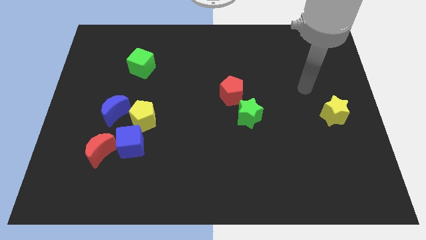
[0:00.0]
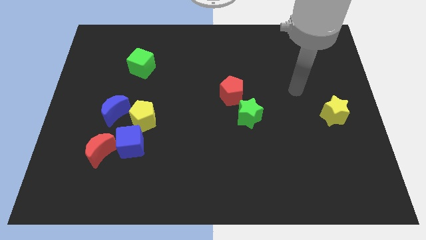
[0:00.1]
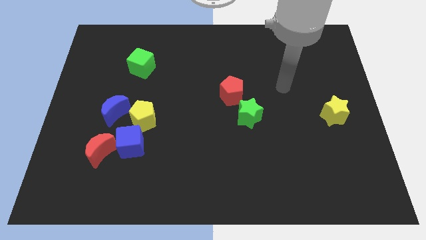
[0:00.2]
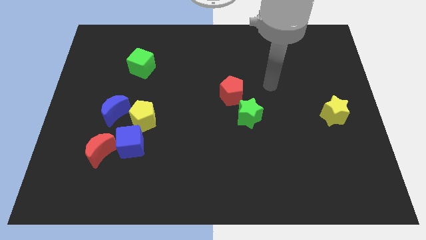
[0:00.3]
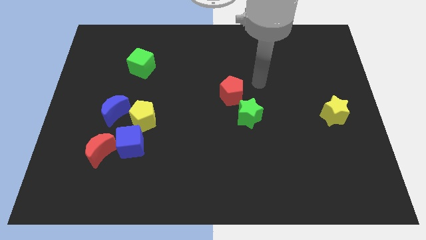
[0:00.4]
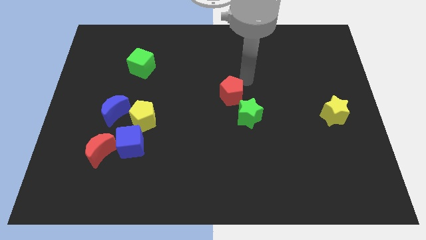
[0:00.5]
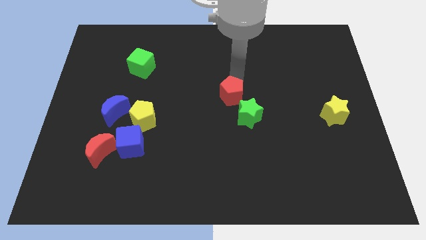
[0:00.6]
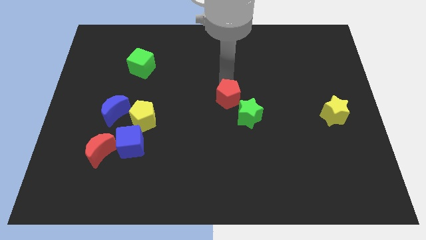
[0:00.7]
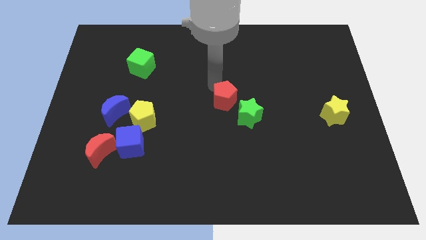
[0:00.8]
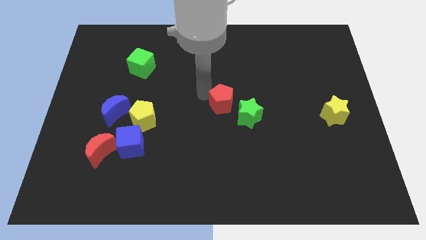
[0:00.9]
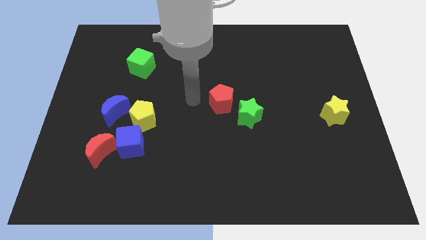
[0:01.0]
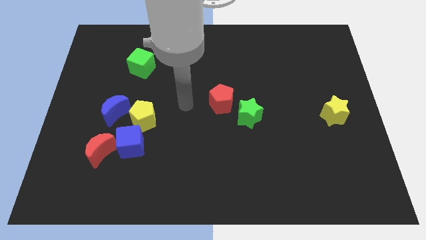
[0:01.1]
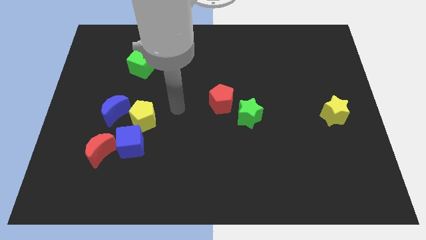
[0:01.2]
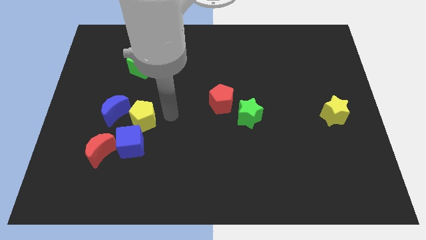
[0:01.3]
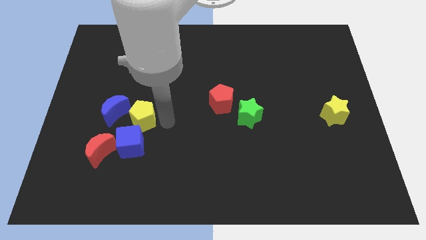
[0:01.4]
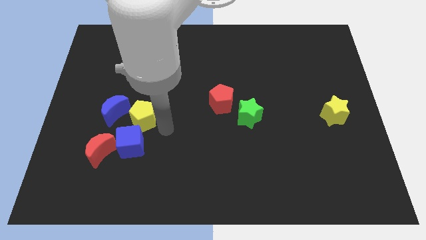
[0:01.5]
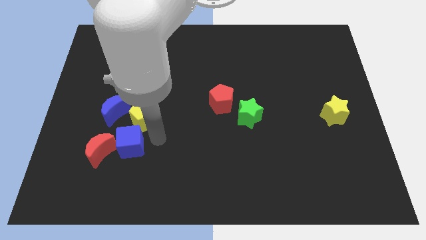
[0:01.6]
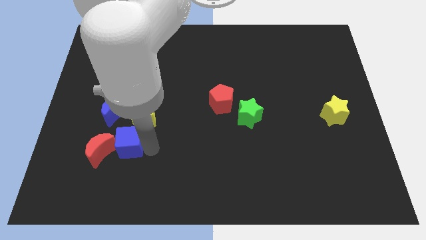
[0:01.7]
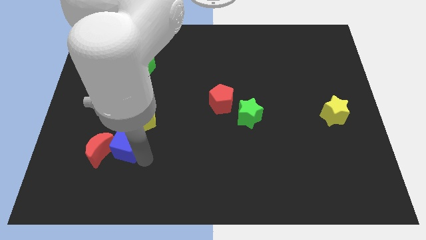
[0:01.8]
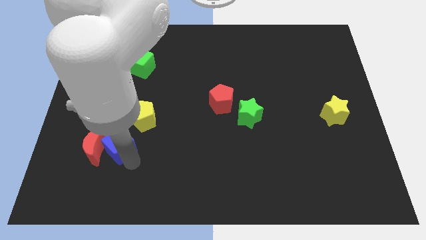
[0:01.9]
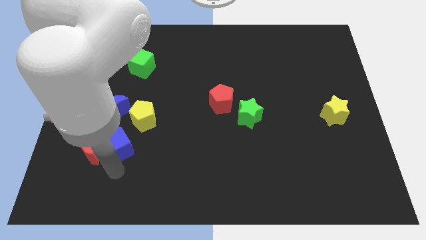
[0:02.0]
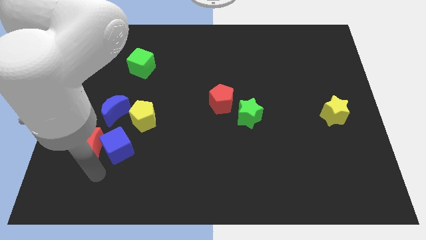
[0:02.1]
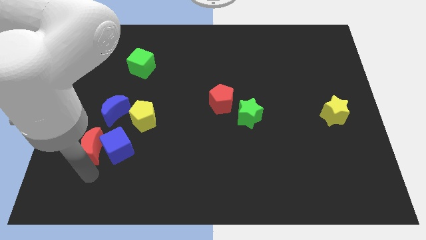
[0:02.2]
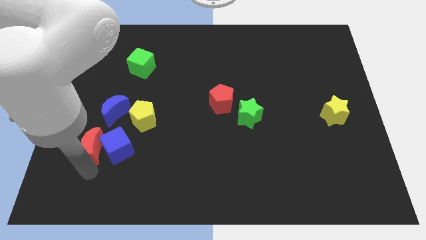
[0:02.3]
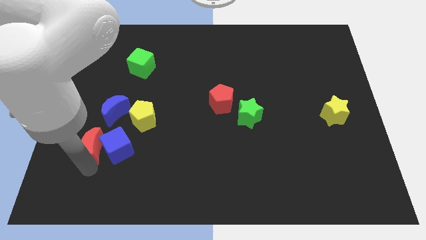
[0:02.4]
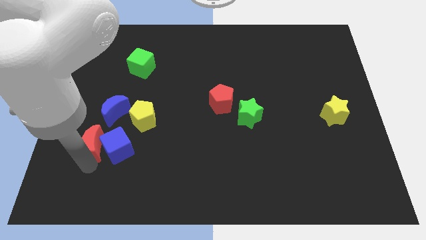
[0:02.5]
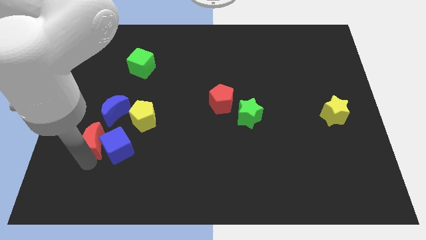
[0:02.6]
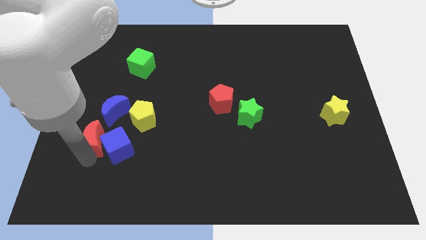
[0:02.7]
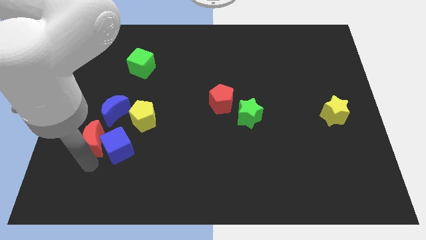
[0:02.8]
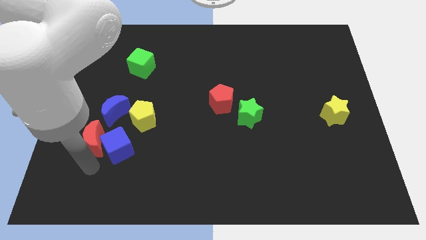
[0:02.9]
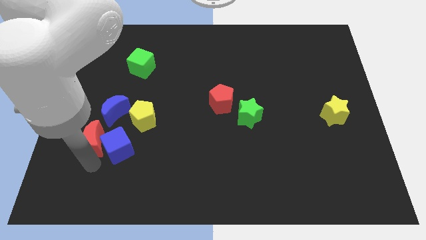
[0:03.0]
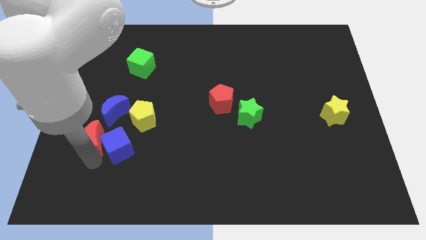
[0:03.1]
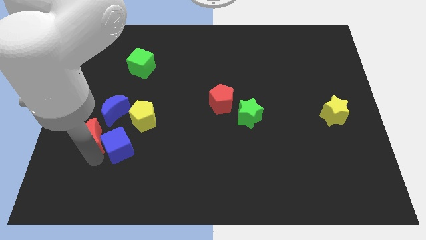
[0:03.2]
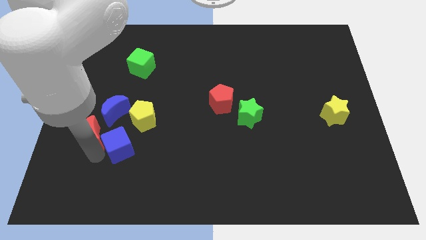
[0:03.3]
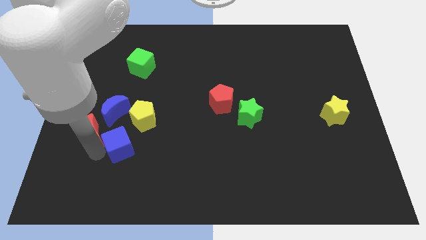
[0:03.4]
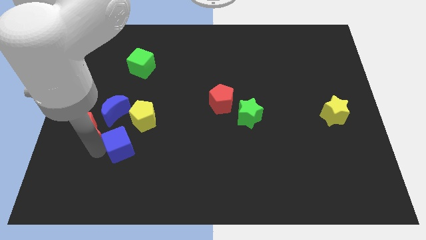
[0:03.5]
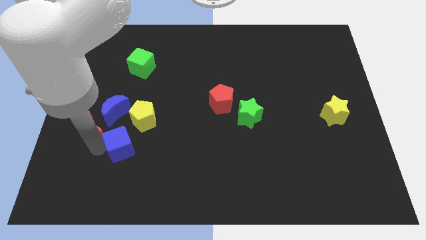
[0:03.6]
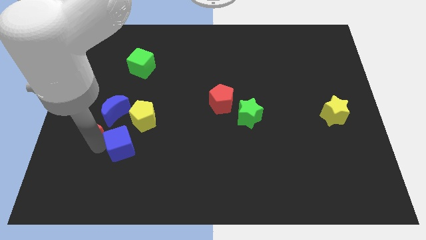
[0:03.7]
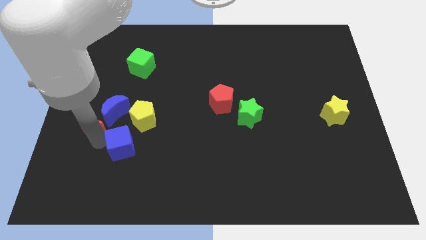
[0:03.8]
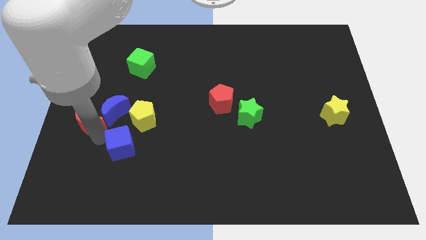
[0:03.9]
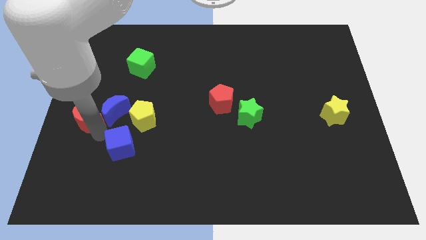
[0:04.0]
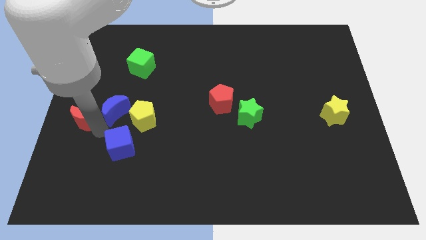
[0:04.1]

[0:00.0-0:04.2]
move the red moon upwards a bit

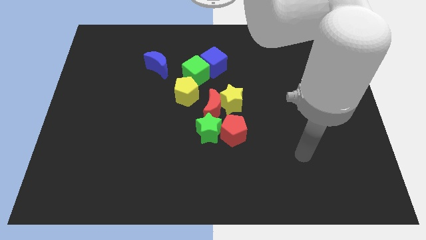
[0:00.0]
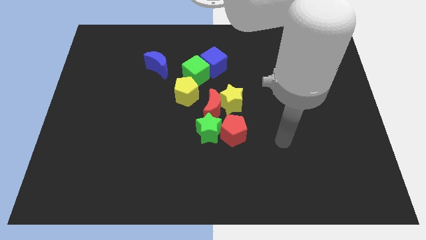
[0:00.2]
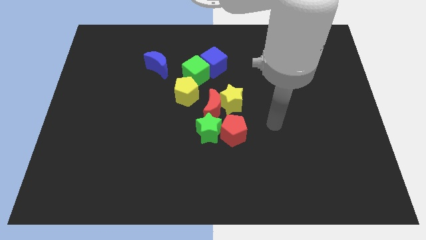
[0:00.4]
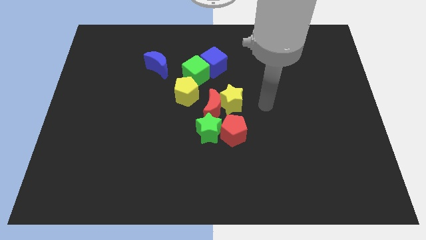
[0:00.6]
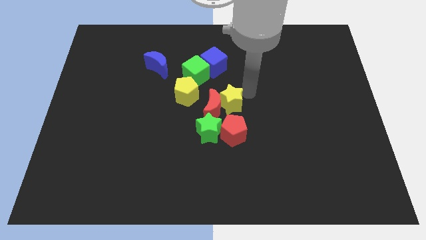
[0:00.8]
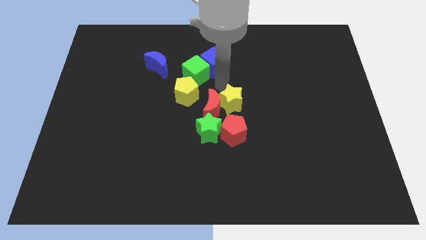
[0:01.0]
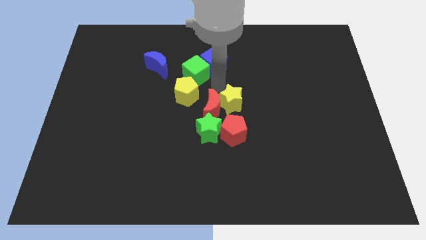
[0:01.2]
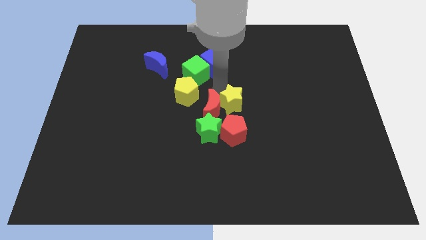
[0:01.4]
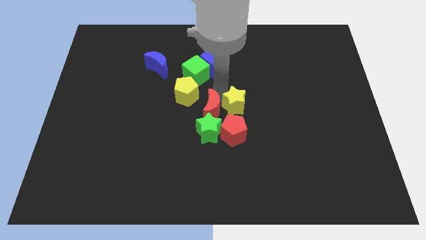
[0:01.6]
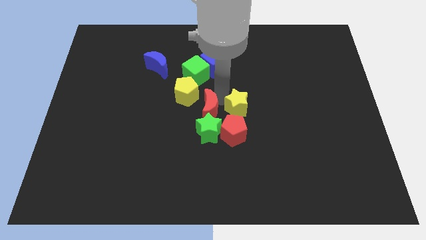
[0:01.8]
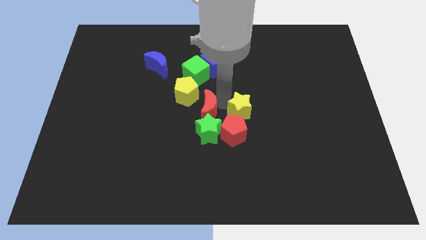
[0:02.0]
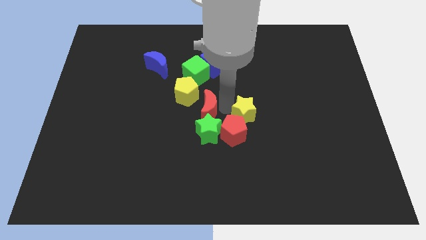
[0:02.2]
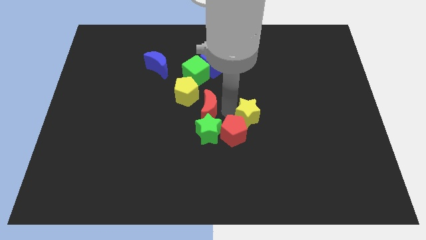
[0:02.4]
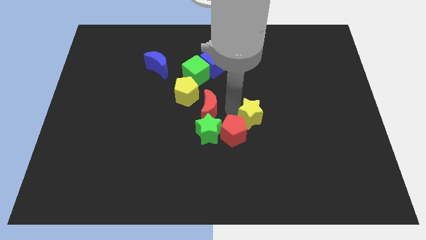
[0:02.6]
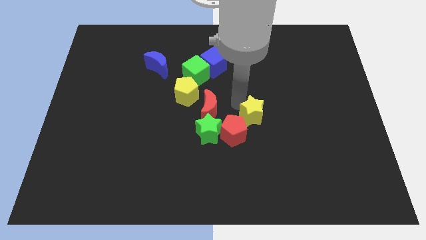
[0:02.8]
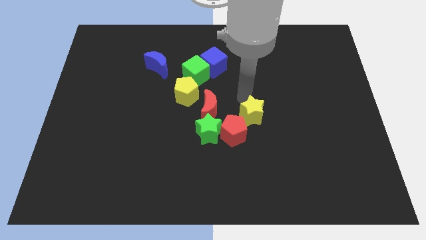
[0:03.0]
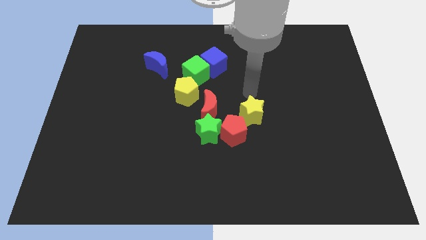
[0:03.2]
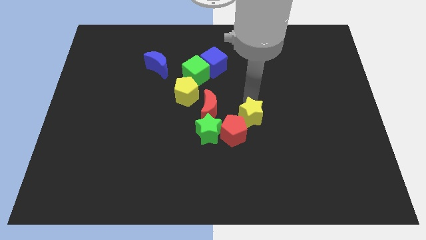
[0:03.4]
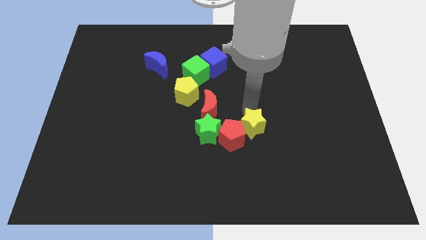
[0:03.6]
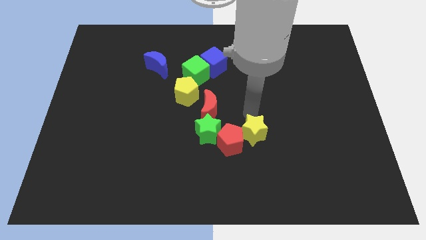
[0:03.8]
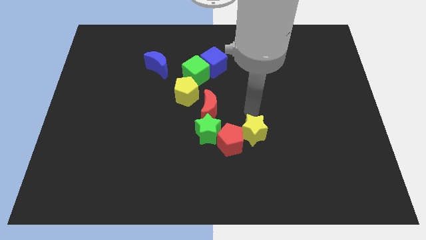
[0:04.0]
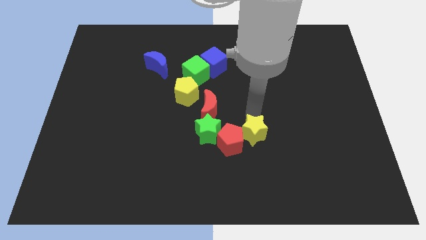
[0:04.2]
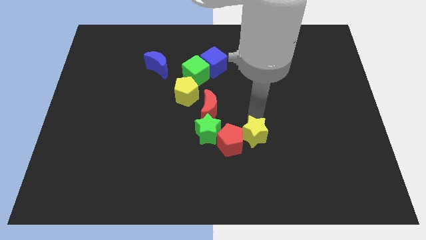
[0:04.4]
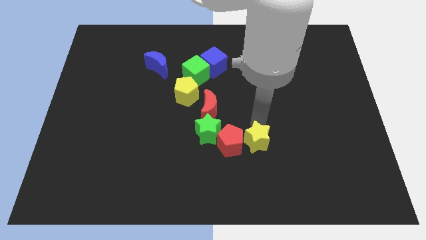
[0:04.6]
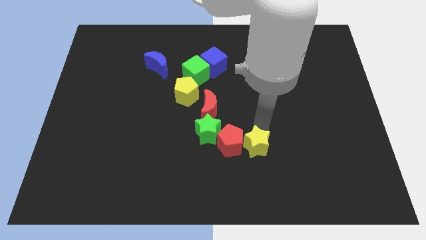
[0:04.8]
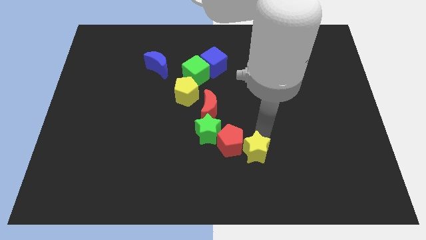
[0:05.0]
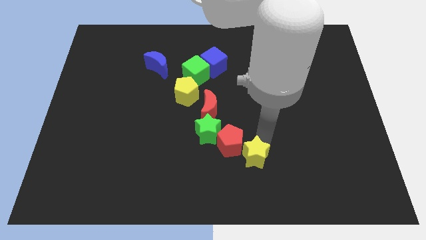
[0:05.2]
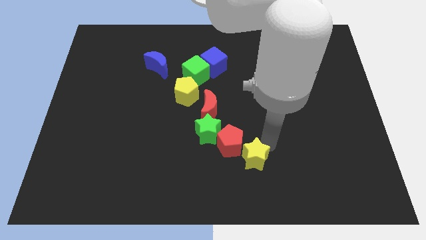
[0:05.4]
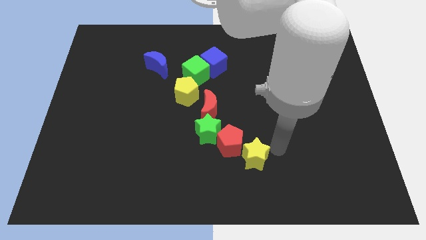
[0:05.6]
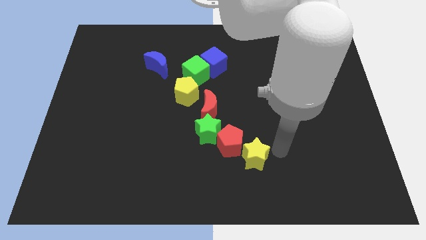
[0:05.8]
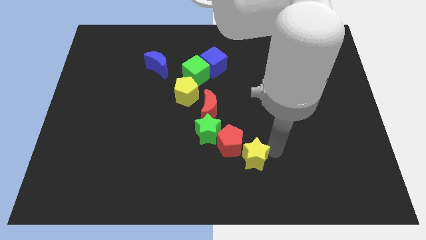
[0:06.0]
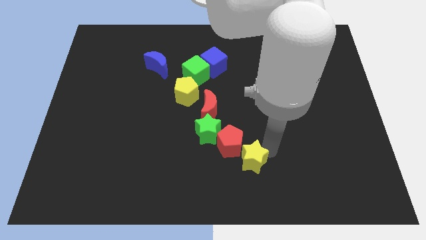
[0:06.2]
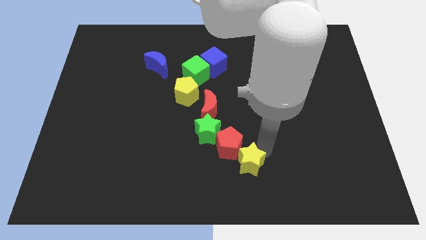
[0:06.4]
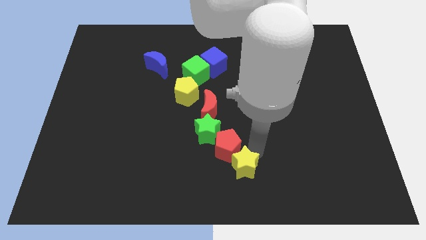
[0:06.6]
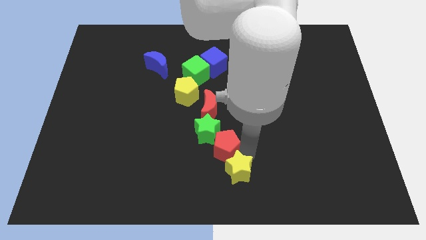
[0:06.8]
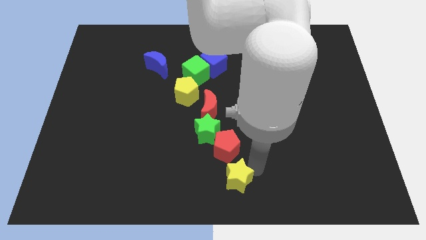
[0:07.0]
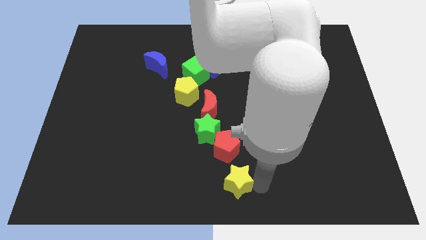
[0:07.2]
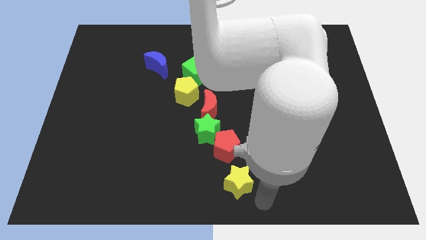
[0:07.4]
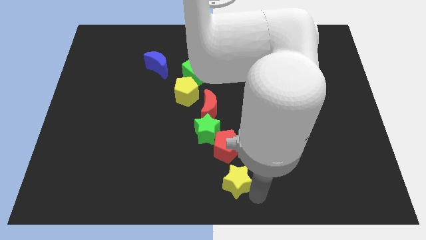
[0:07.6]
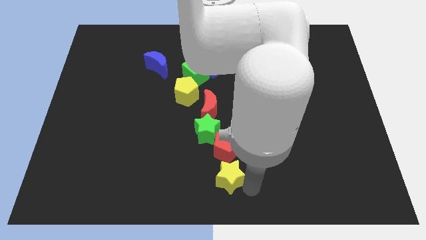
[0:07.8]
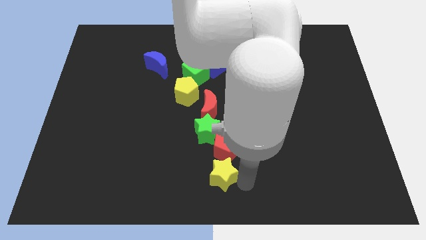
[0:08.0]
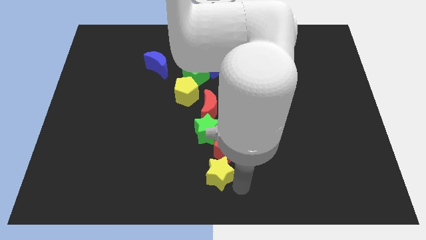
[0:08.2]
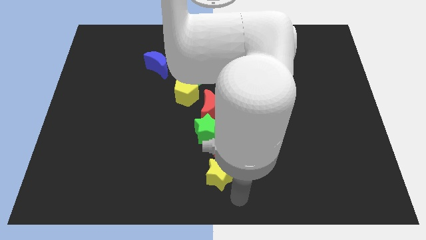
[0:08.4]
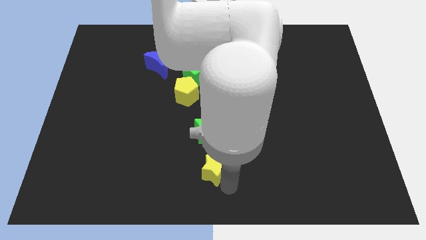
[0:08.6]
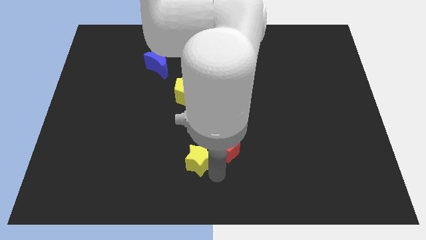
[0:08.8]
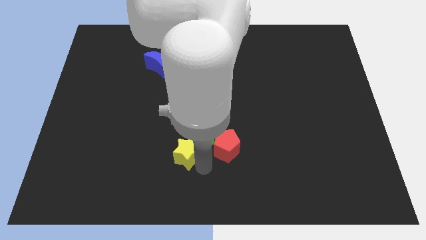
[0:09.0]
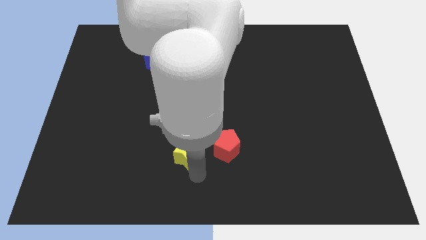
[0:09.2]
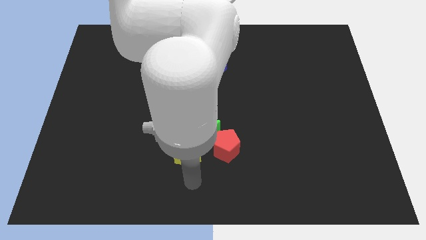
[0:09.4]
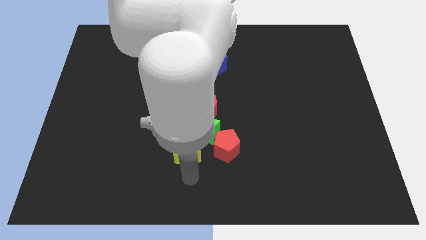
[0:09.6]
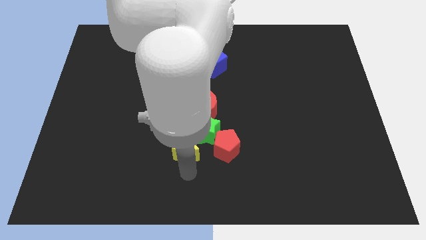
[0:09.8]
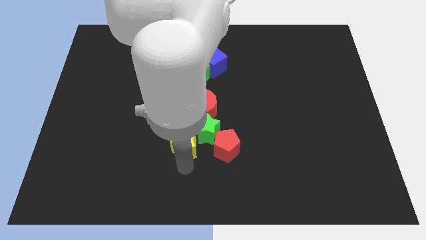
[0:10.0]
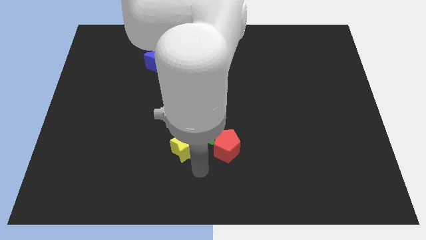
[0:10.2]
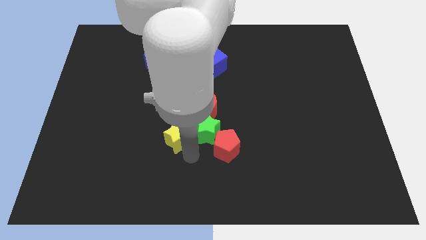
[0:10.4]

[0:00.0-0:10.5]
push the yellow star left slightly
